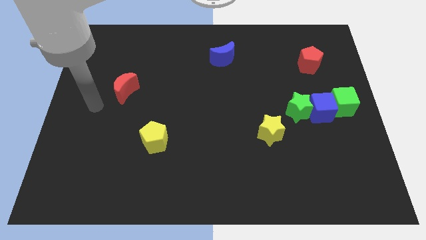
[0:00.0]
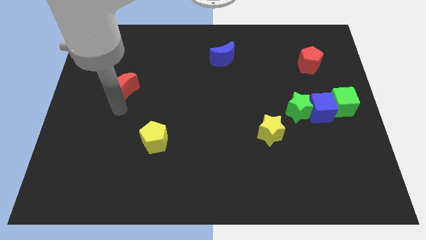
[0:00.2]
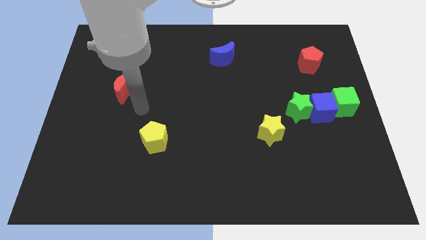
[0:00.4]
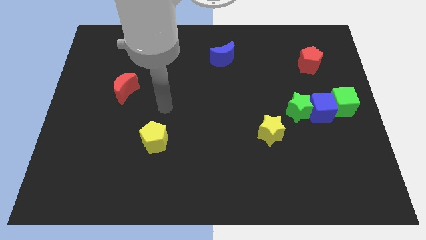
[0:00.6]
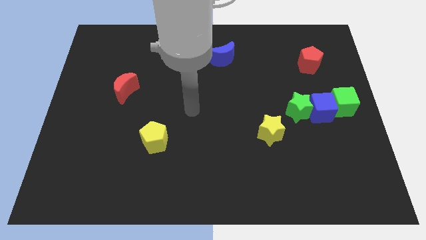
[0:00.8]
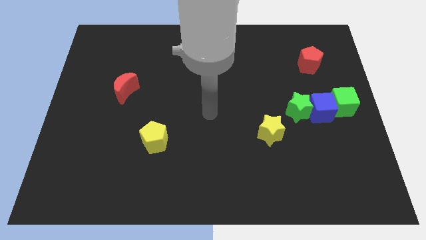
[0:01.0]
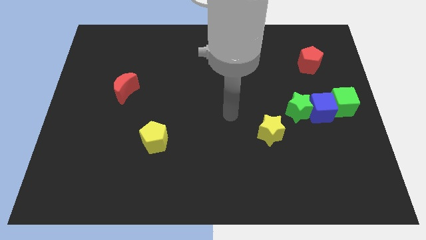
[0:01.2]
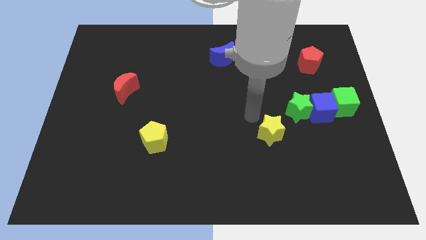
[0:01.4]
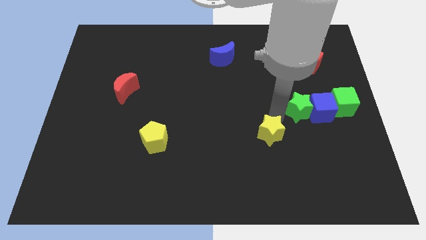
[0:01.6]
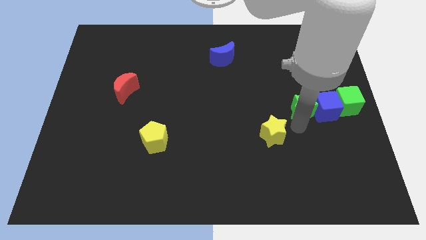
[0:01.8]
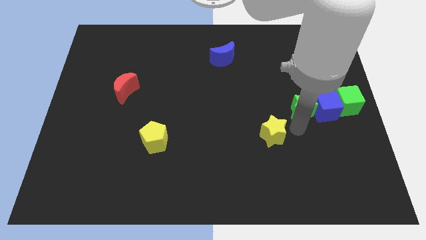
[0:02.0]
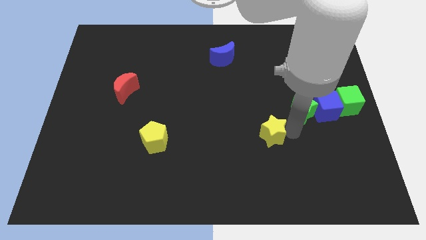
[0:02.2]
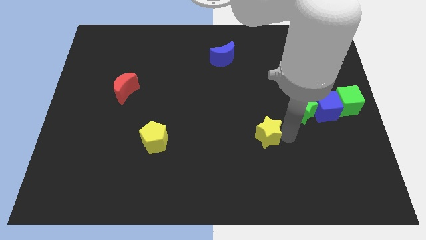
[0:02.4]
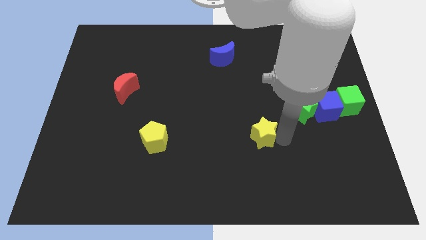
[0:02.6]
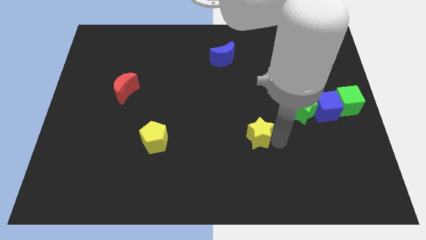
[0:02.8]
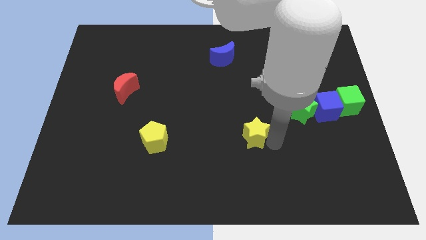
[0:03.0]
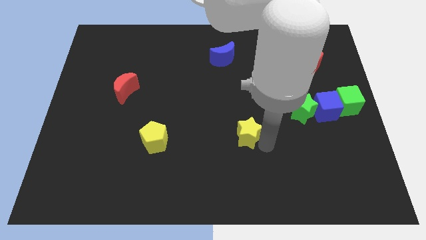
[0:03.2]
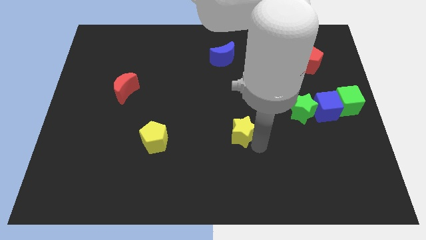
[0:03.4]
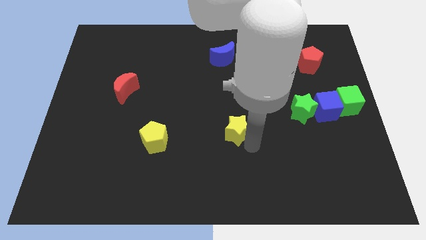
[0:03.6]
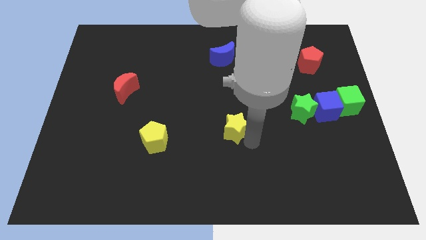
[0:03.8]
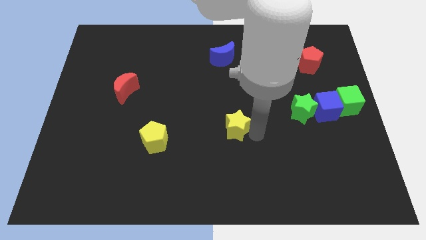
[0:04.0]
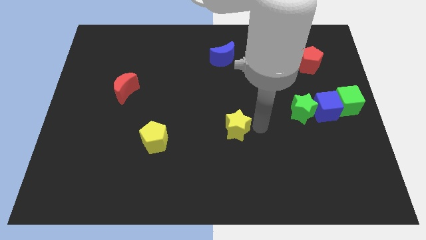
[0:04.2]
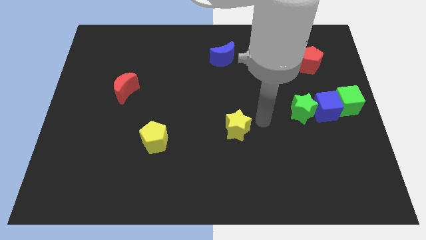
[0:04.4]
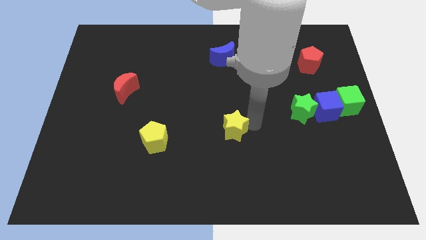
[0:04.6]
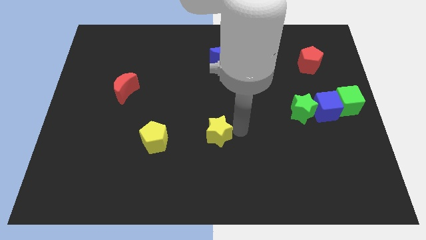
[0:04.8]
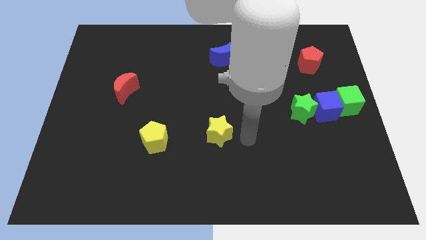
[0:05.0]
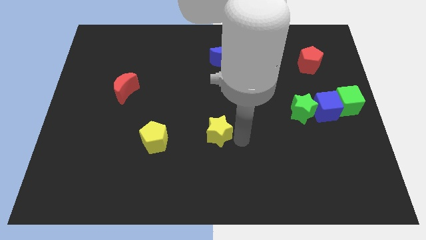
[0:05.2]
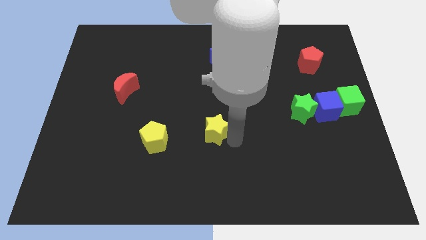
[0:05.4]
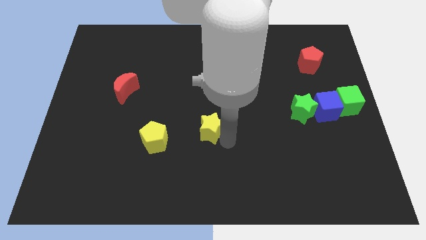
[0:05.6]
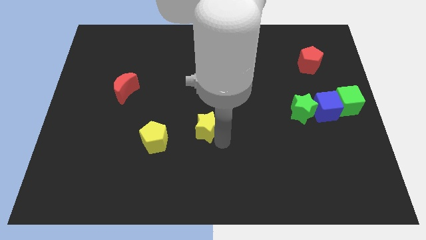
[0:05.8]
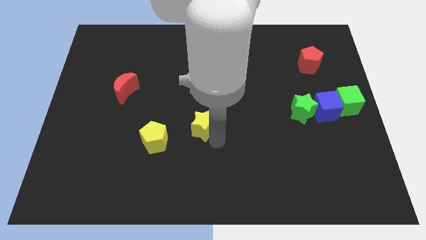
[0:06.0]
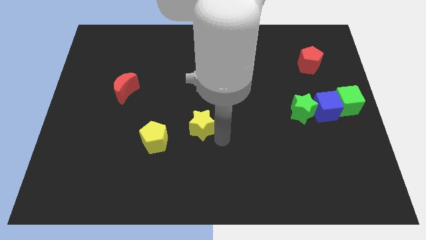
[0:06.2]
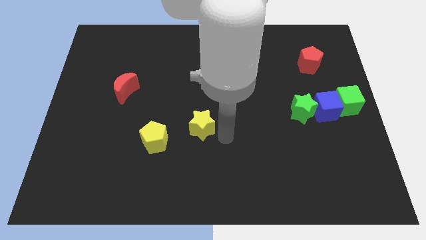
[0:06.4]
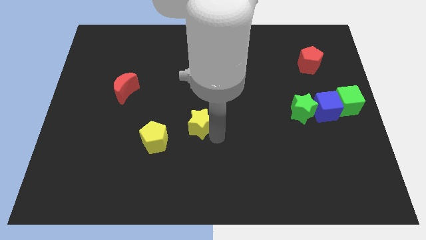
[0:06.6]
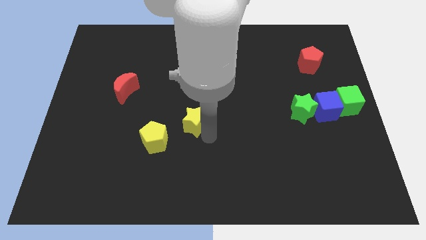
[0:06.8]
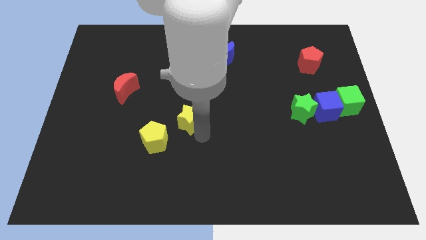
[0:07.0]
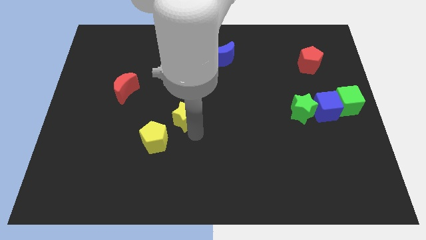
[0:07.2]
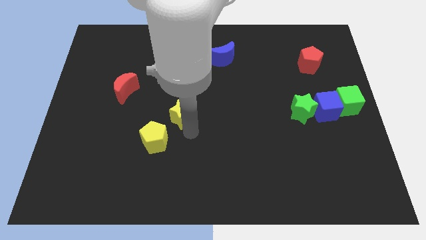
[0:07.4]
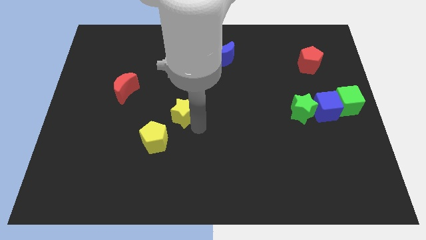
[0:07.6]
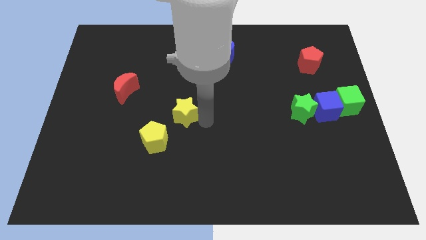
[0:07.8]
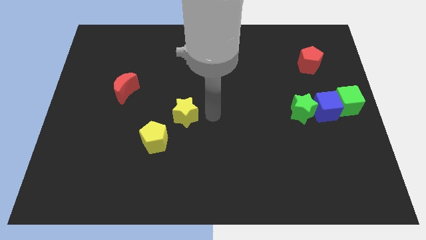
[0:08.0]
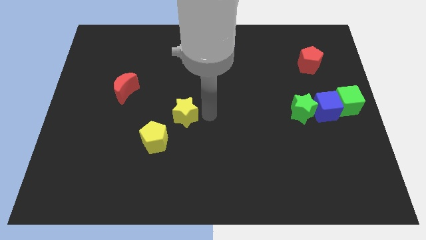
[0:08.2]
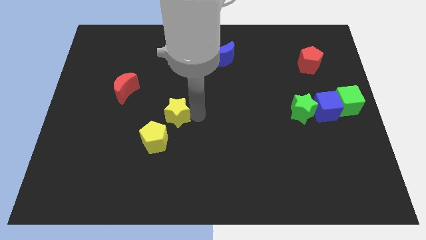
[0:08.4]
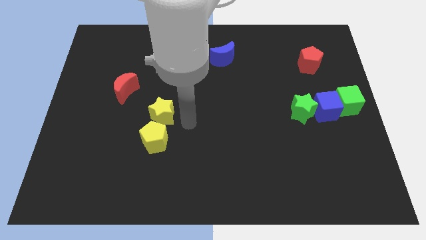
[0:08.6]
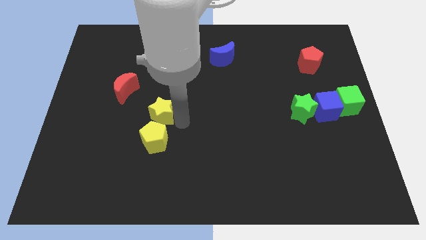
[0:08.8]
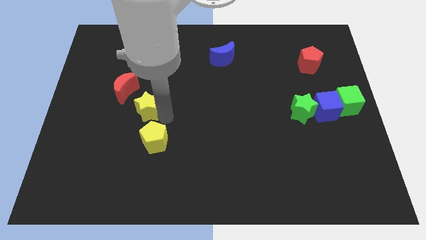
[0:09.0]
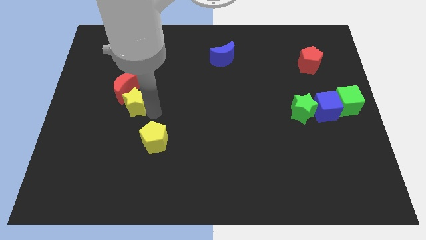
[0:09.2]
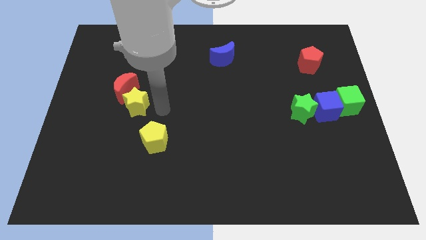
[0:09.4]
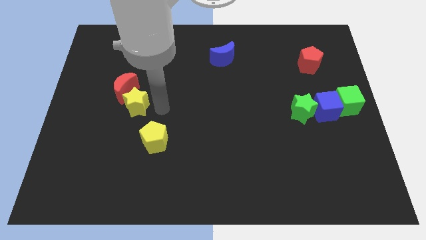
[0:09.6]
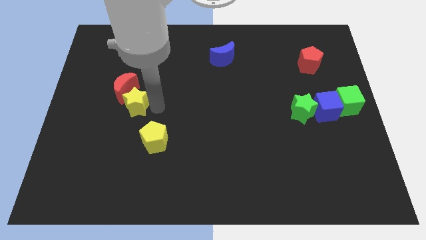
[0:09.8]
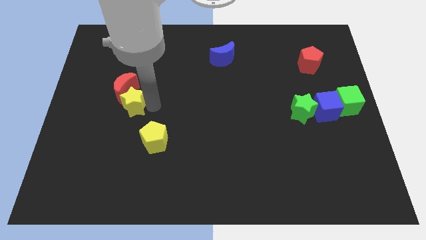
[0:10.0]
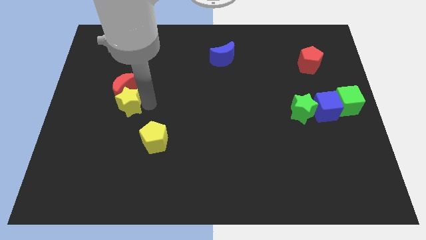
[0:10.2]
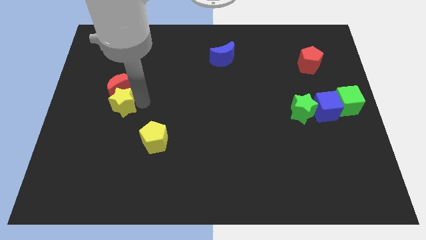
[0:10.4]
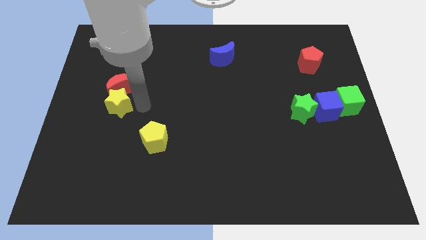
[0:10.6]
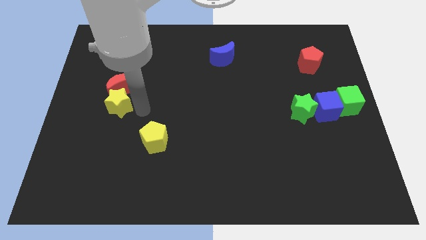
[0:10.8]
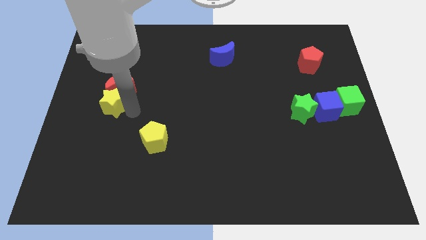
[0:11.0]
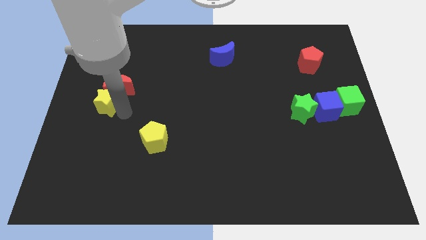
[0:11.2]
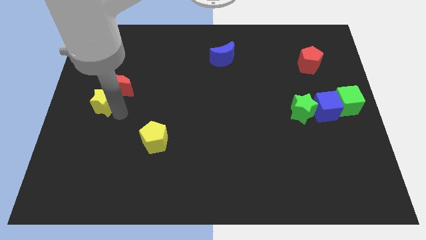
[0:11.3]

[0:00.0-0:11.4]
push the yellow star to the center left

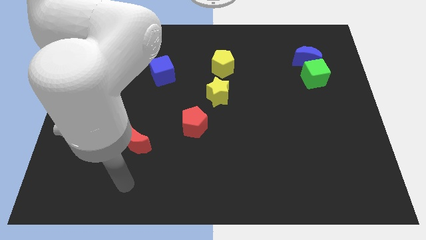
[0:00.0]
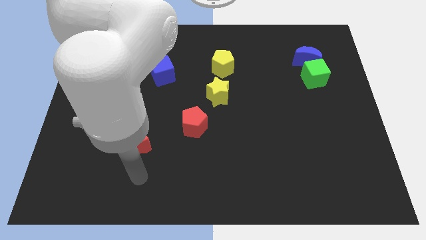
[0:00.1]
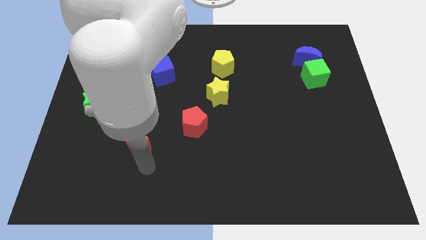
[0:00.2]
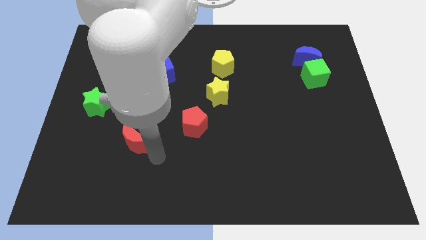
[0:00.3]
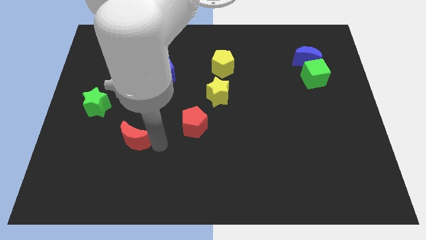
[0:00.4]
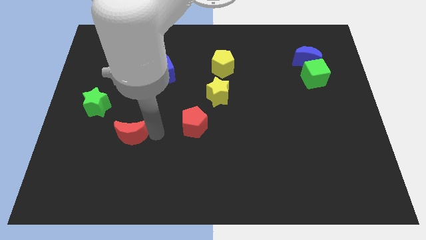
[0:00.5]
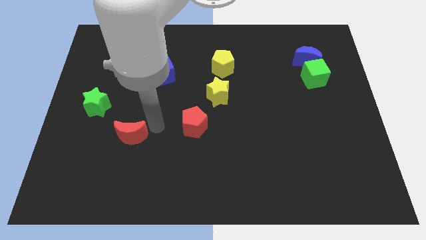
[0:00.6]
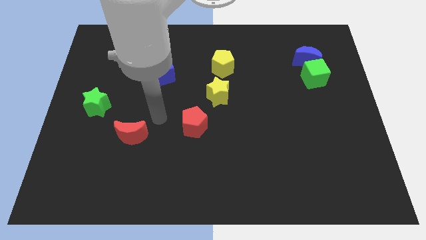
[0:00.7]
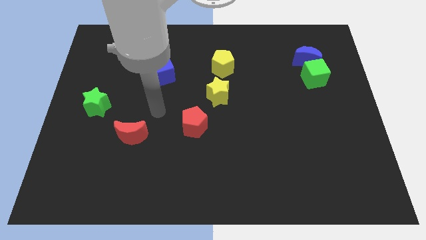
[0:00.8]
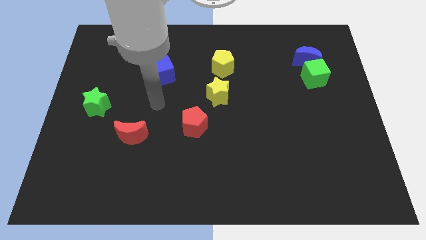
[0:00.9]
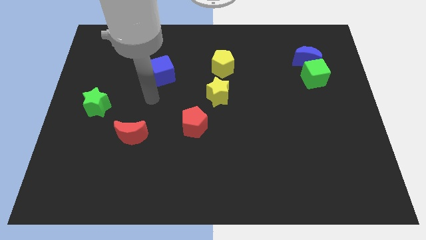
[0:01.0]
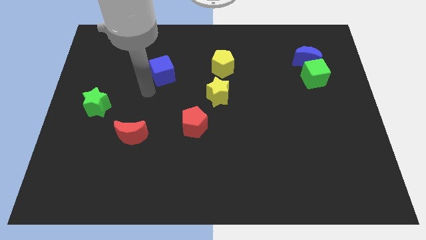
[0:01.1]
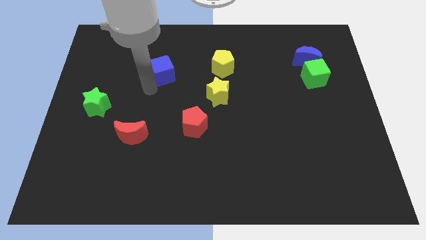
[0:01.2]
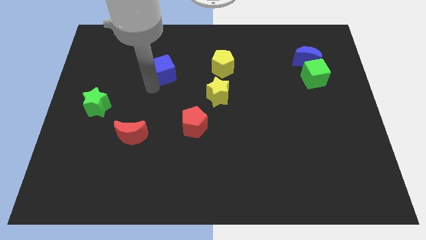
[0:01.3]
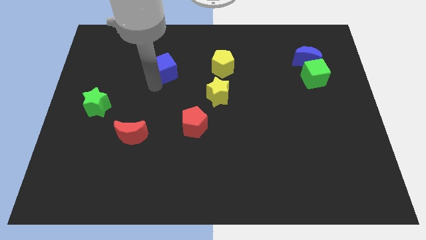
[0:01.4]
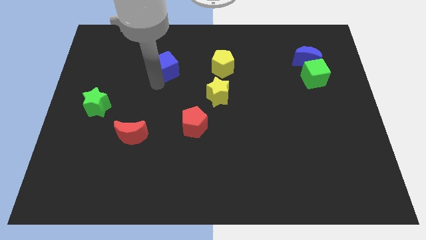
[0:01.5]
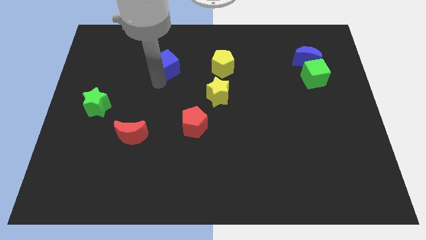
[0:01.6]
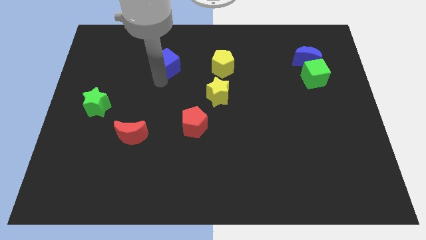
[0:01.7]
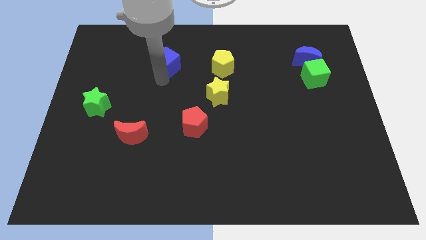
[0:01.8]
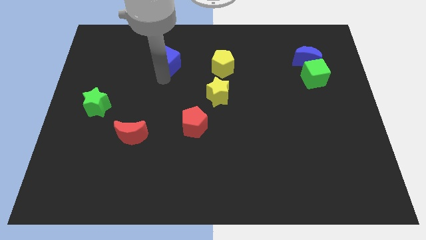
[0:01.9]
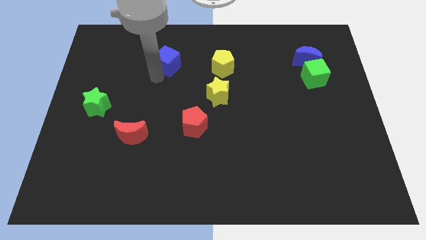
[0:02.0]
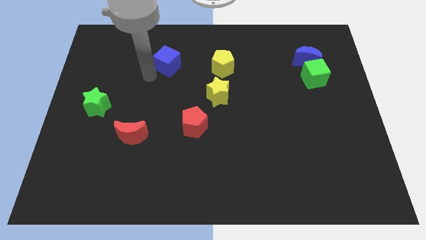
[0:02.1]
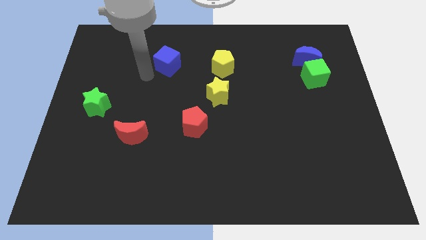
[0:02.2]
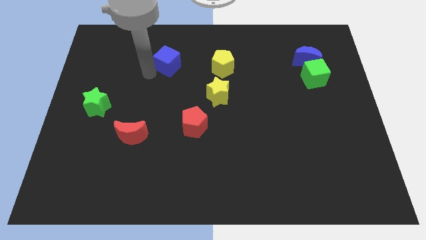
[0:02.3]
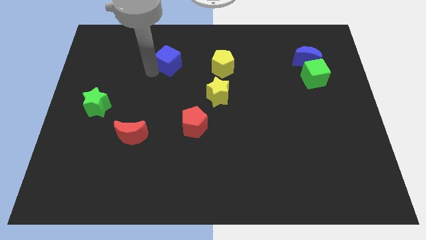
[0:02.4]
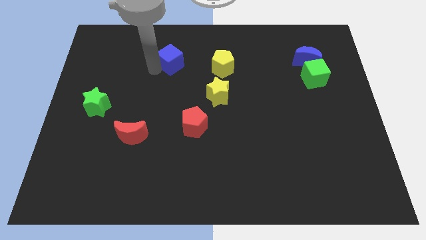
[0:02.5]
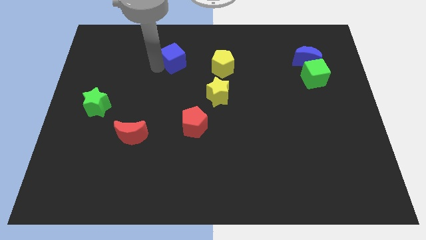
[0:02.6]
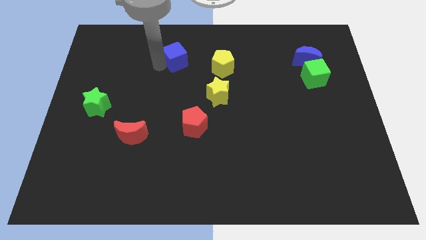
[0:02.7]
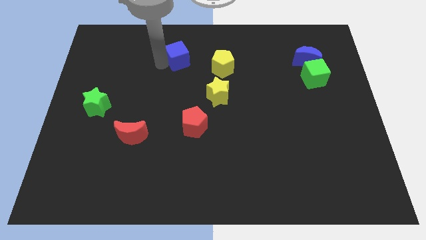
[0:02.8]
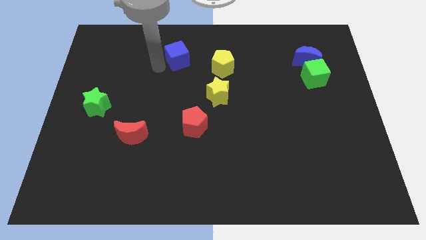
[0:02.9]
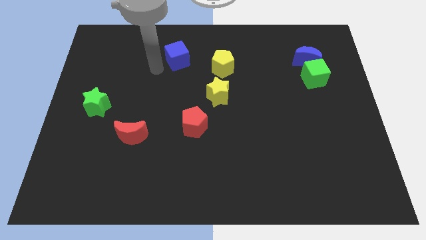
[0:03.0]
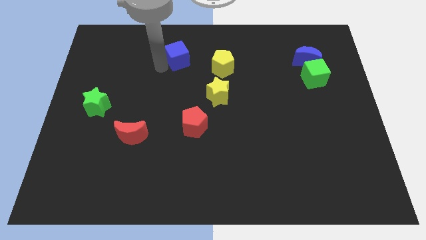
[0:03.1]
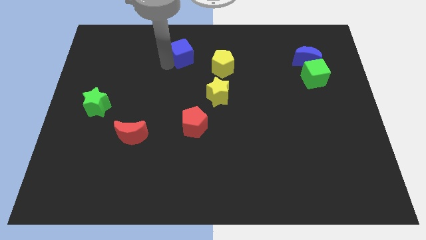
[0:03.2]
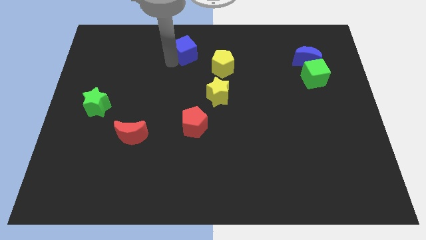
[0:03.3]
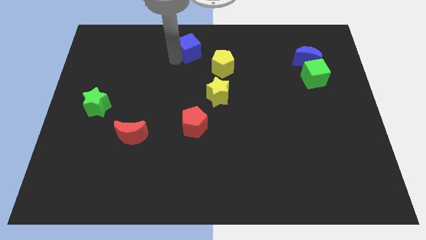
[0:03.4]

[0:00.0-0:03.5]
put the blue cube to the top
